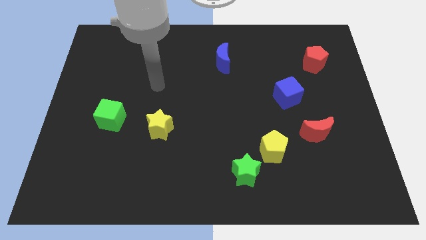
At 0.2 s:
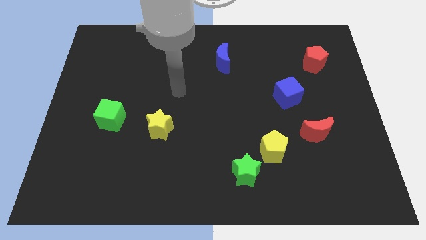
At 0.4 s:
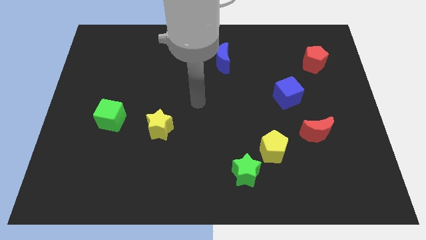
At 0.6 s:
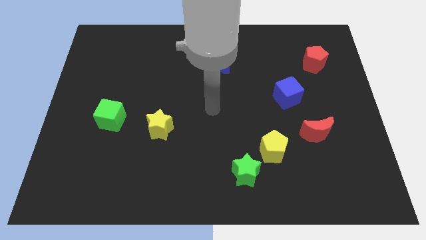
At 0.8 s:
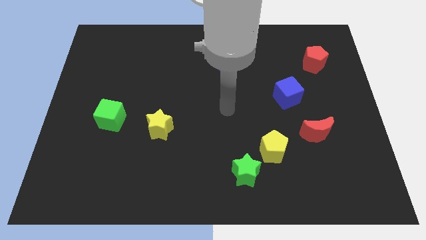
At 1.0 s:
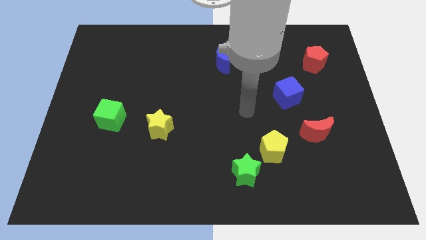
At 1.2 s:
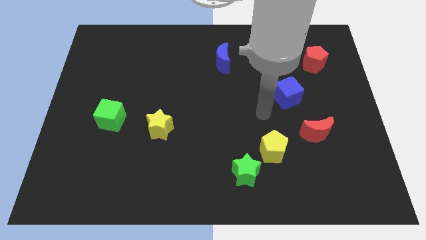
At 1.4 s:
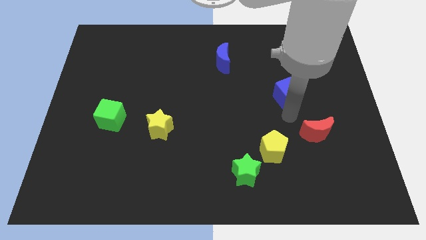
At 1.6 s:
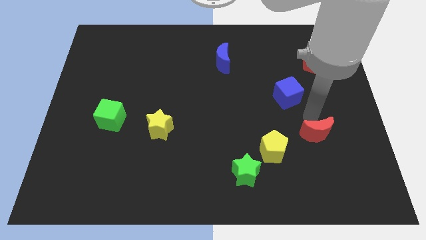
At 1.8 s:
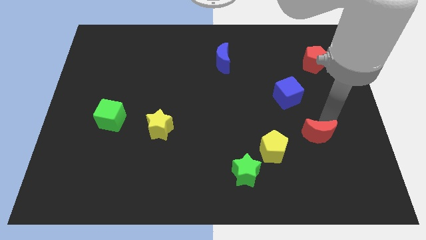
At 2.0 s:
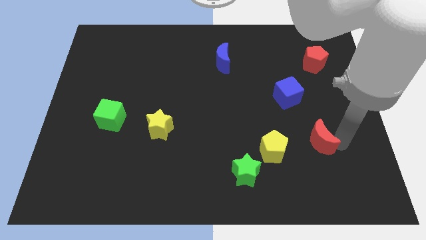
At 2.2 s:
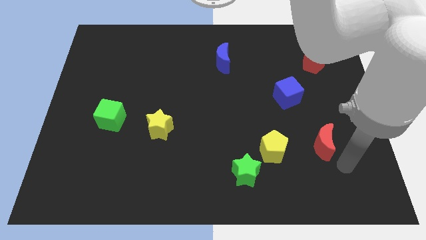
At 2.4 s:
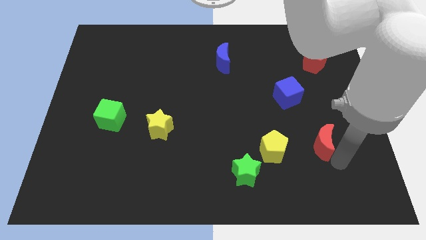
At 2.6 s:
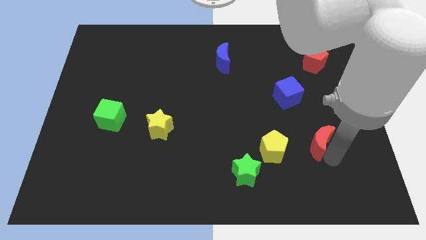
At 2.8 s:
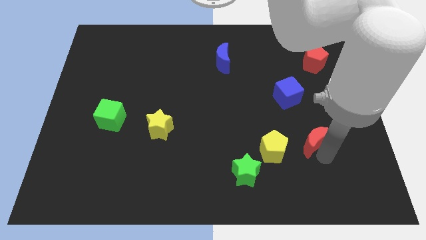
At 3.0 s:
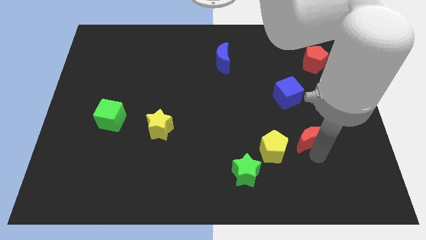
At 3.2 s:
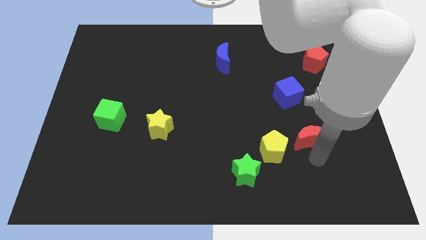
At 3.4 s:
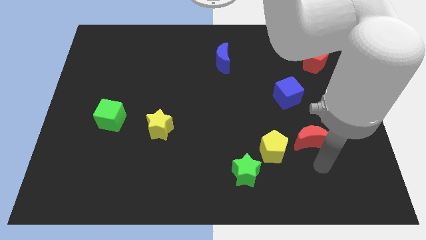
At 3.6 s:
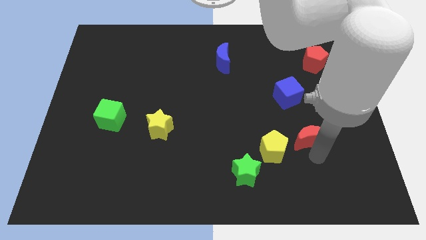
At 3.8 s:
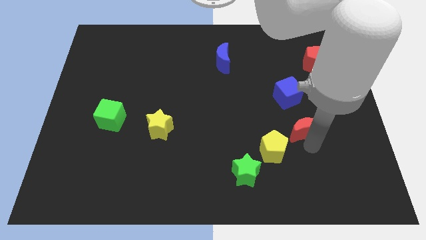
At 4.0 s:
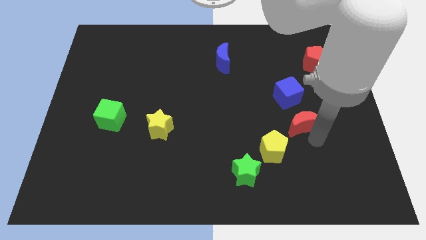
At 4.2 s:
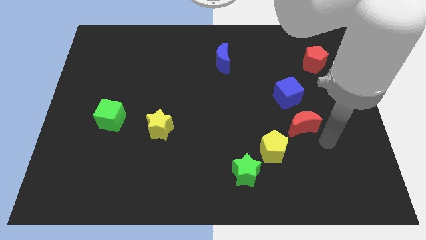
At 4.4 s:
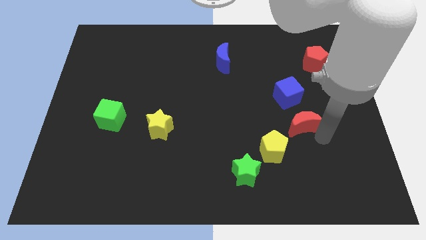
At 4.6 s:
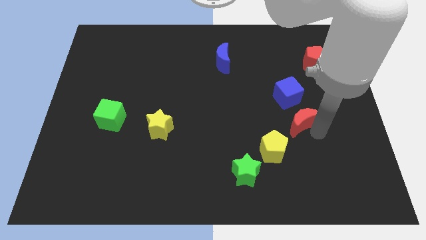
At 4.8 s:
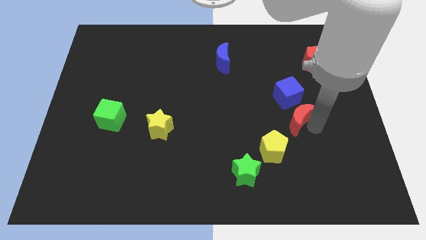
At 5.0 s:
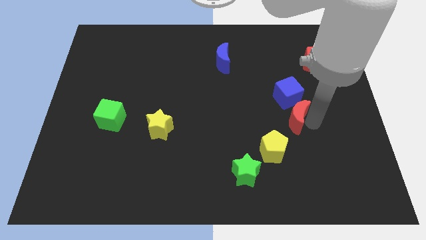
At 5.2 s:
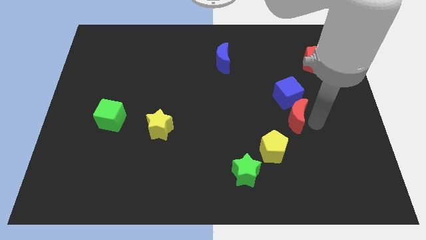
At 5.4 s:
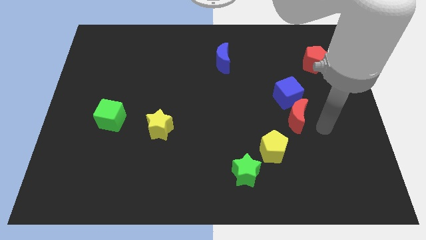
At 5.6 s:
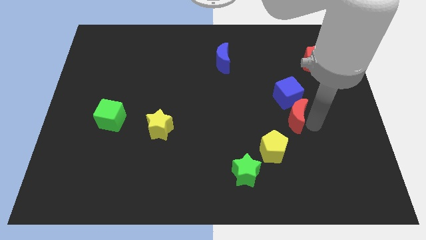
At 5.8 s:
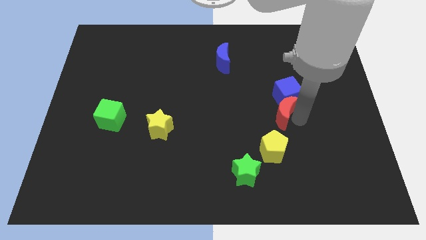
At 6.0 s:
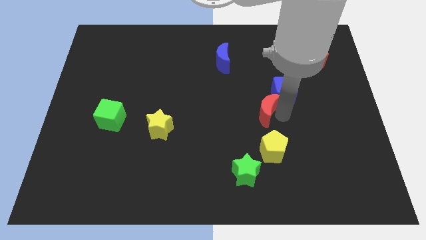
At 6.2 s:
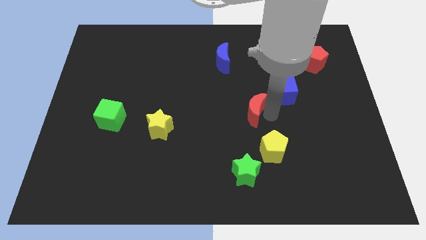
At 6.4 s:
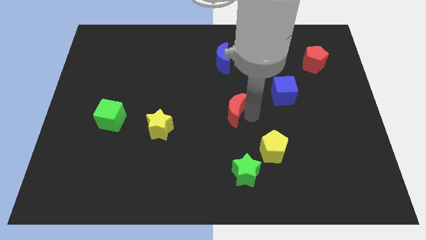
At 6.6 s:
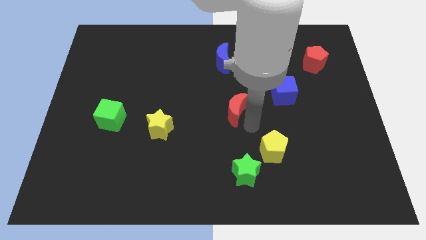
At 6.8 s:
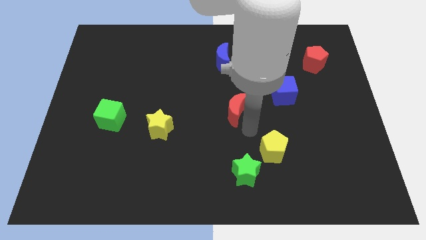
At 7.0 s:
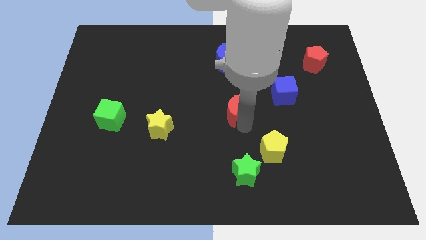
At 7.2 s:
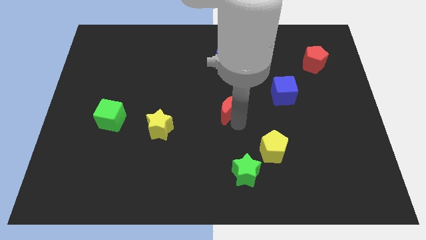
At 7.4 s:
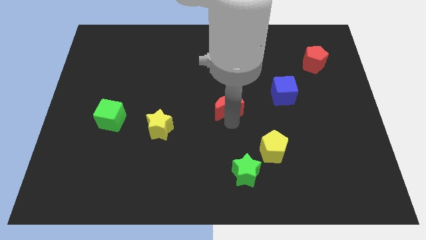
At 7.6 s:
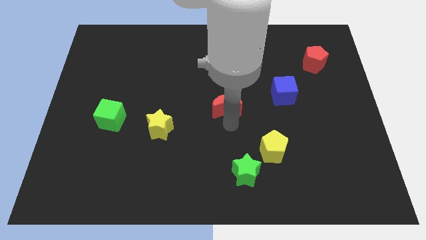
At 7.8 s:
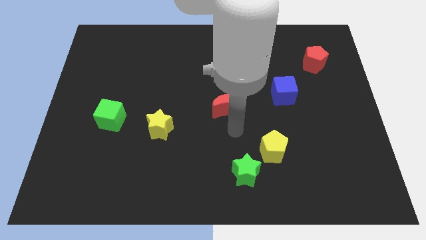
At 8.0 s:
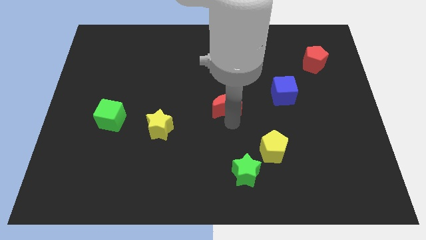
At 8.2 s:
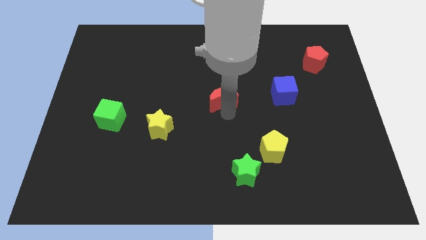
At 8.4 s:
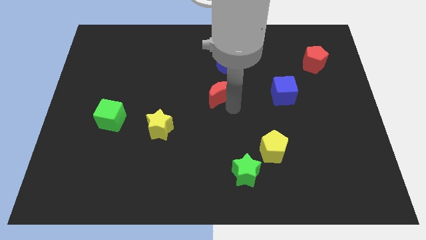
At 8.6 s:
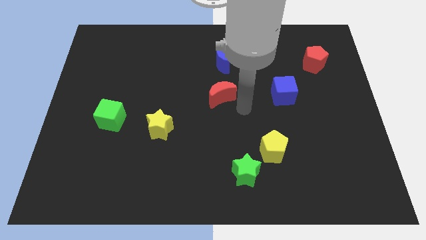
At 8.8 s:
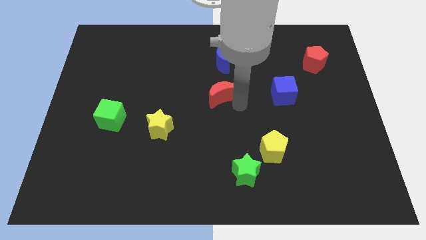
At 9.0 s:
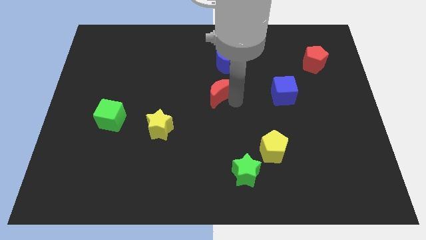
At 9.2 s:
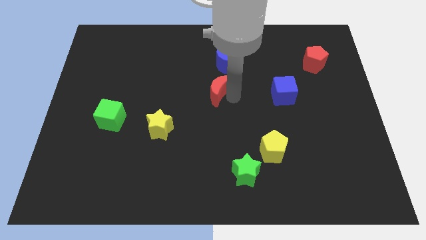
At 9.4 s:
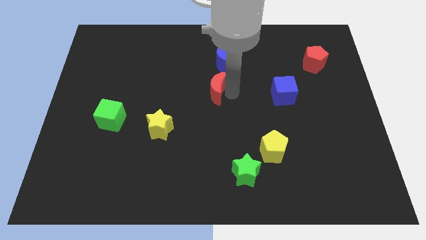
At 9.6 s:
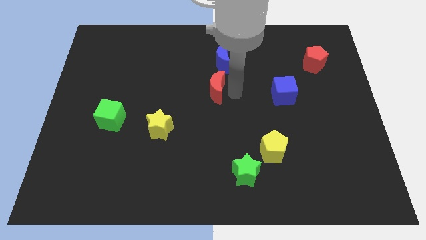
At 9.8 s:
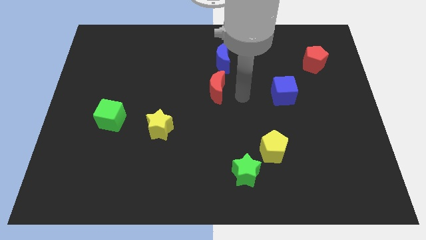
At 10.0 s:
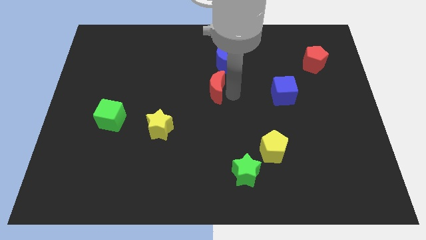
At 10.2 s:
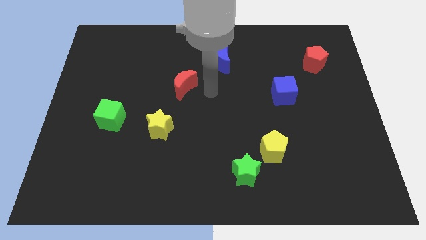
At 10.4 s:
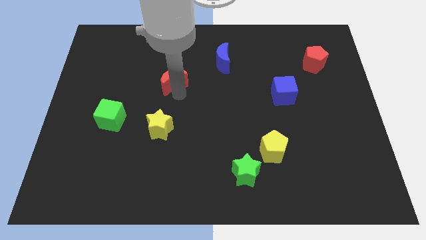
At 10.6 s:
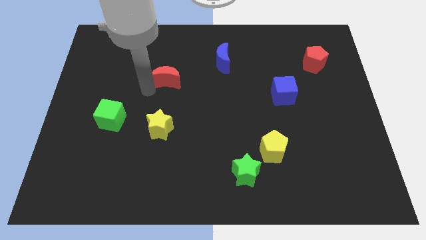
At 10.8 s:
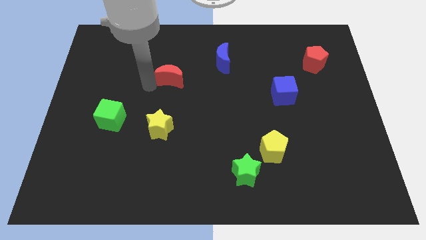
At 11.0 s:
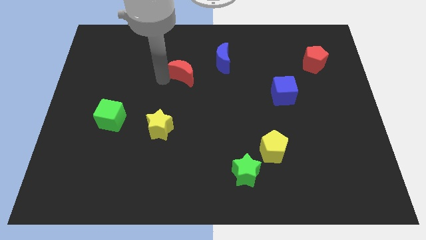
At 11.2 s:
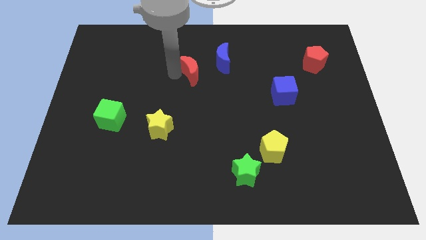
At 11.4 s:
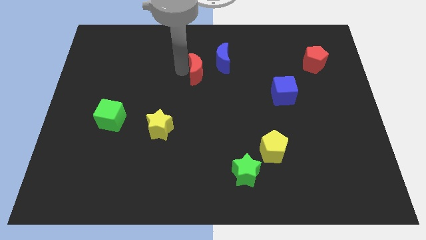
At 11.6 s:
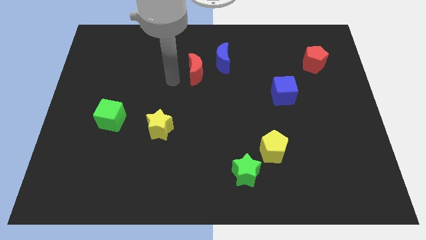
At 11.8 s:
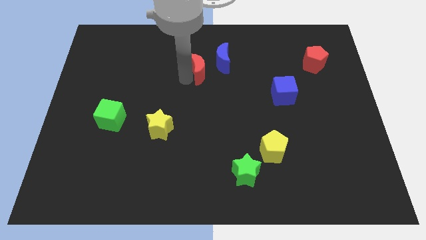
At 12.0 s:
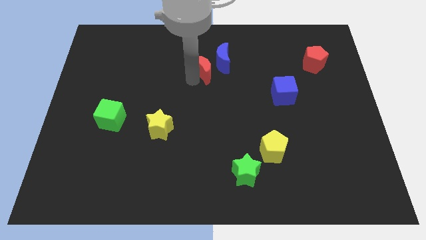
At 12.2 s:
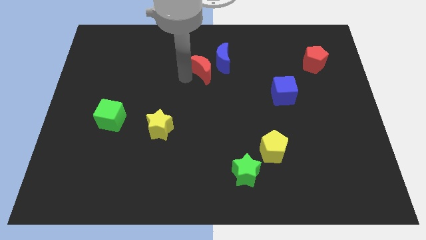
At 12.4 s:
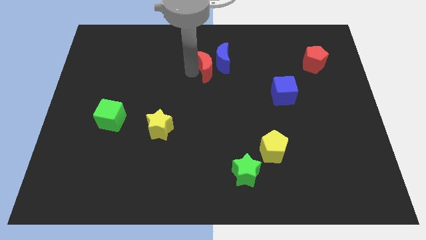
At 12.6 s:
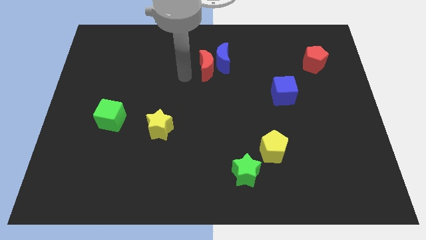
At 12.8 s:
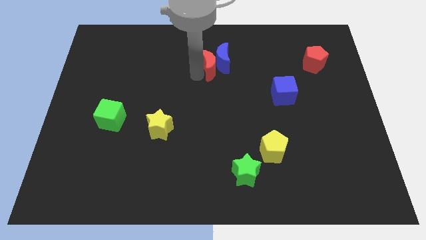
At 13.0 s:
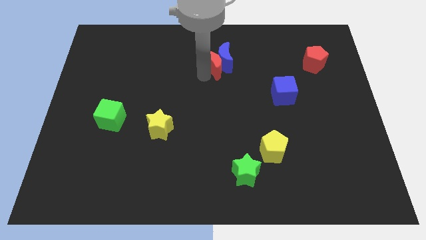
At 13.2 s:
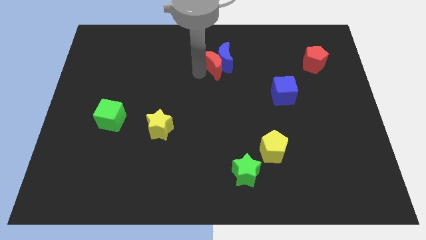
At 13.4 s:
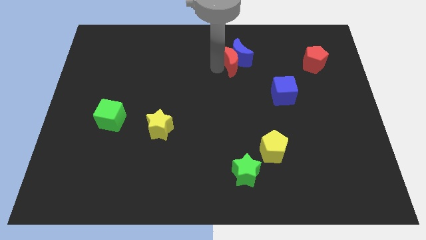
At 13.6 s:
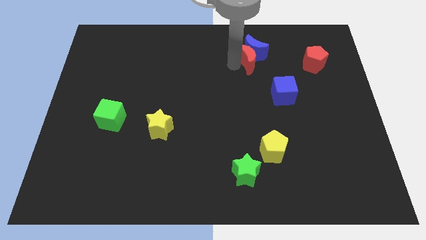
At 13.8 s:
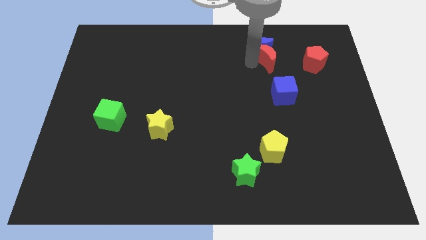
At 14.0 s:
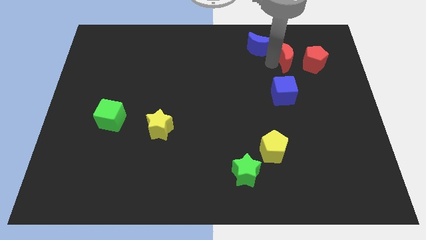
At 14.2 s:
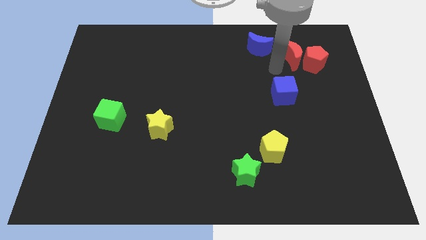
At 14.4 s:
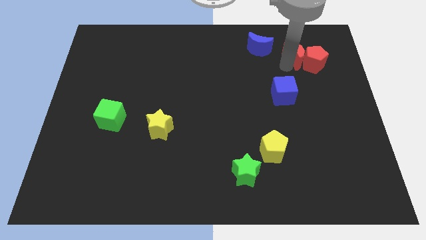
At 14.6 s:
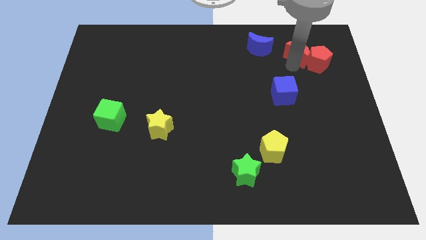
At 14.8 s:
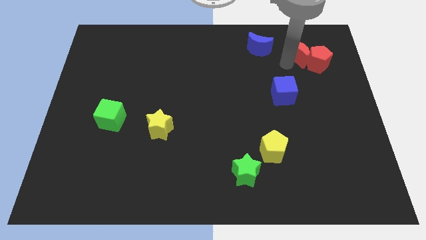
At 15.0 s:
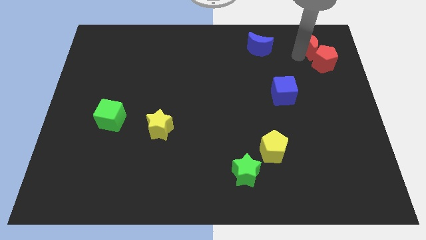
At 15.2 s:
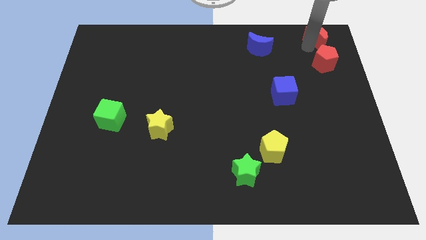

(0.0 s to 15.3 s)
move the red moon to the top right corner
